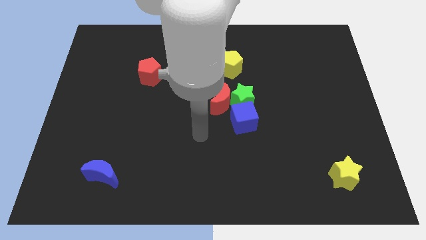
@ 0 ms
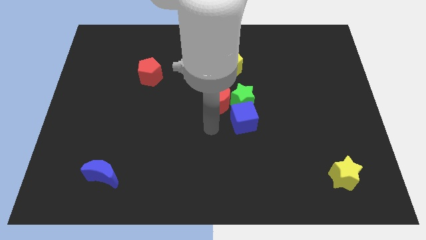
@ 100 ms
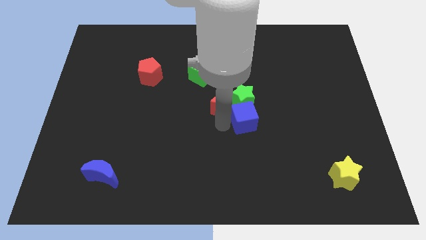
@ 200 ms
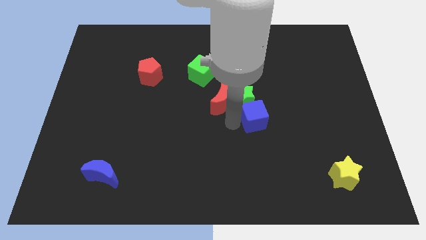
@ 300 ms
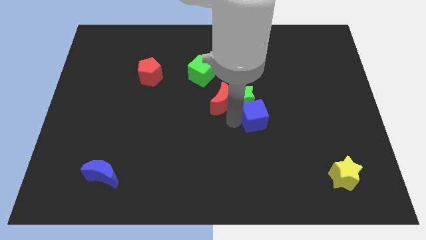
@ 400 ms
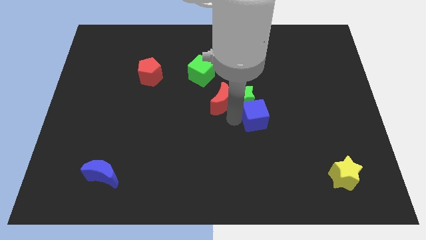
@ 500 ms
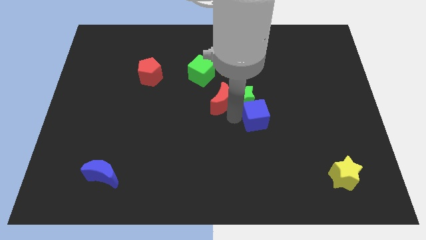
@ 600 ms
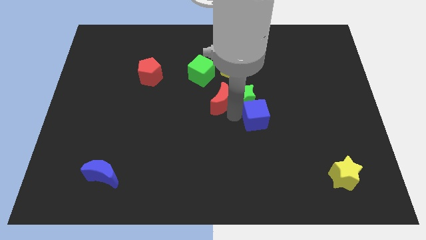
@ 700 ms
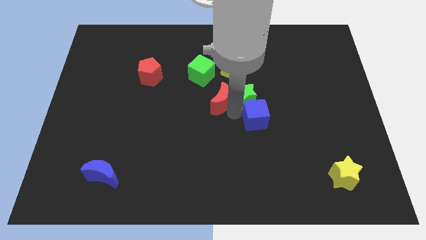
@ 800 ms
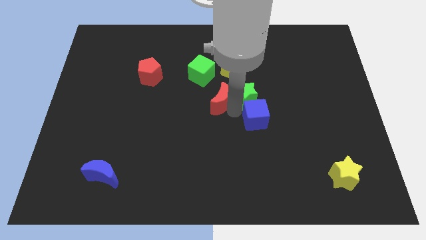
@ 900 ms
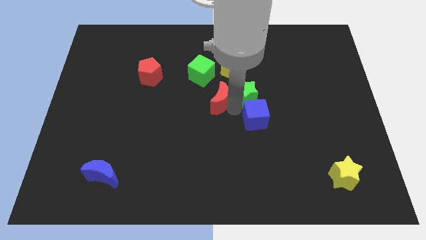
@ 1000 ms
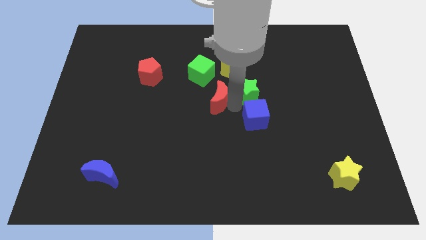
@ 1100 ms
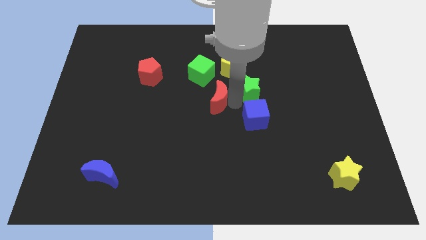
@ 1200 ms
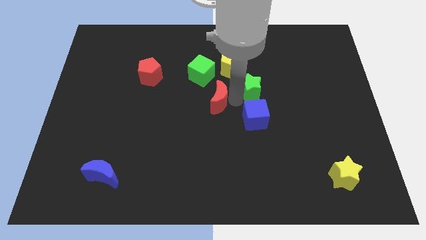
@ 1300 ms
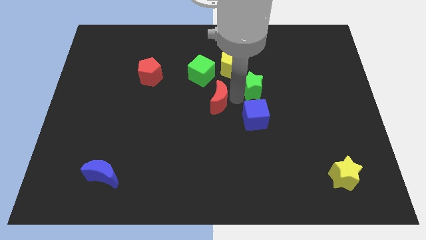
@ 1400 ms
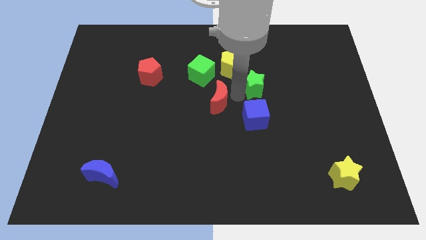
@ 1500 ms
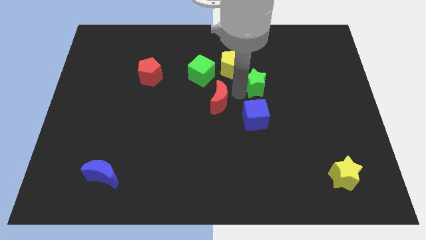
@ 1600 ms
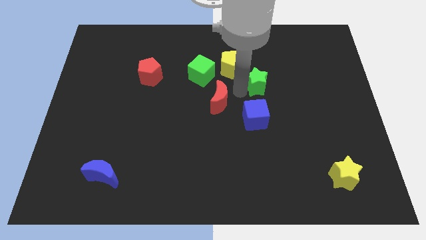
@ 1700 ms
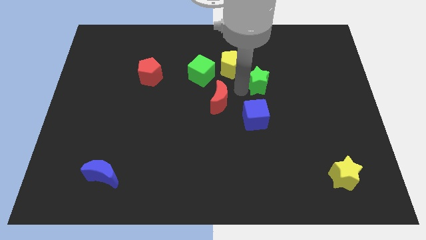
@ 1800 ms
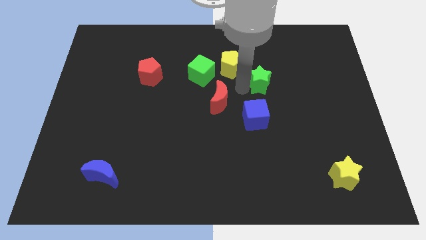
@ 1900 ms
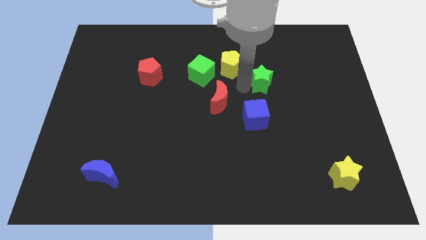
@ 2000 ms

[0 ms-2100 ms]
pull the green star apart from the red moon and blue cube

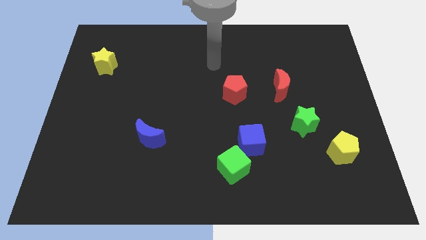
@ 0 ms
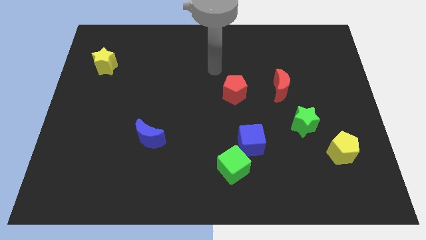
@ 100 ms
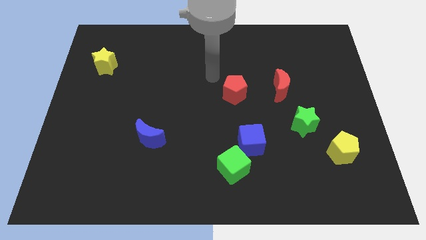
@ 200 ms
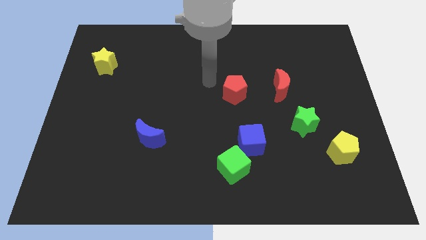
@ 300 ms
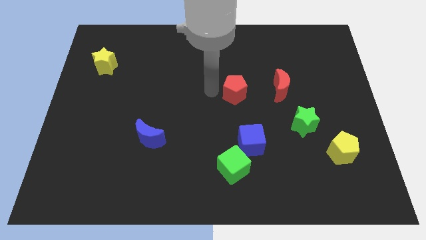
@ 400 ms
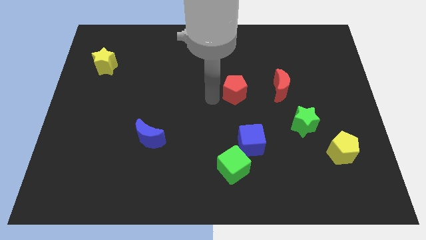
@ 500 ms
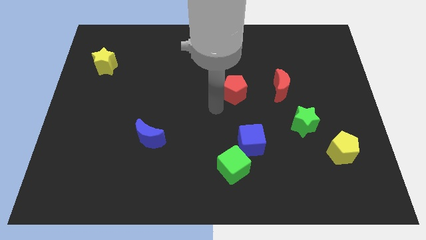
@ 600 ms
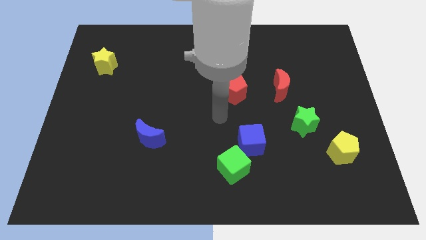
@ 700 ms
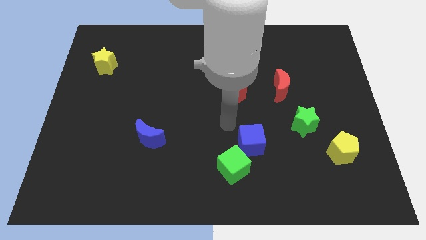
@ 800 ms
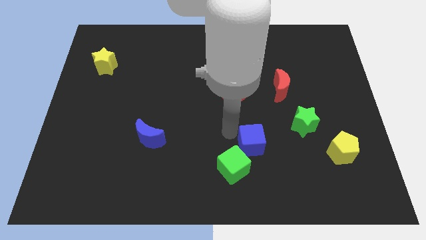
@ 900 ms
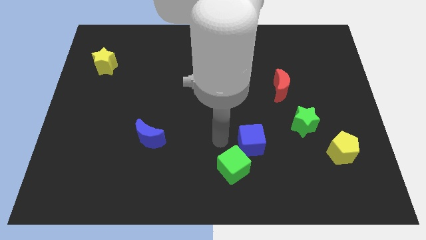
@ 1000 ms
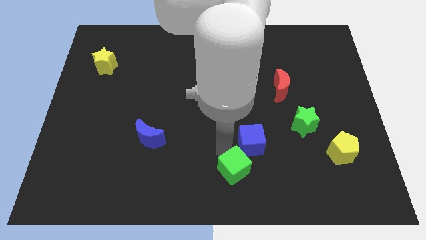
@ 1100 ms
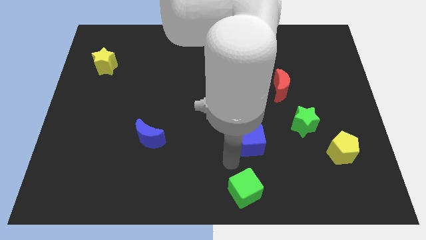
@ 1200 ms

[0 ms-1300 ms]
pull the blue cube apart from the green cube

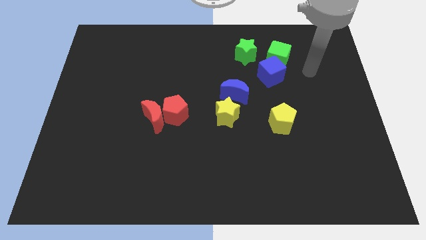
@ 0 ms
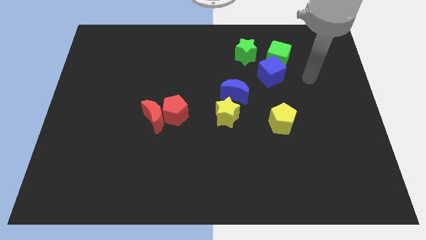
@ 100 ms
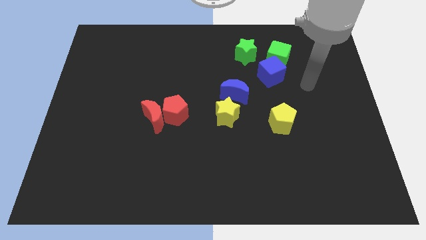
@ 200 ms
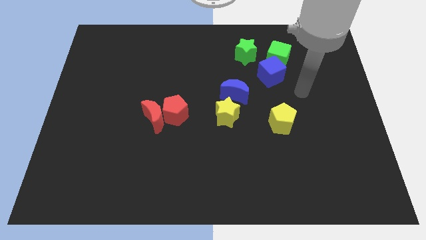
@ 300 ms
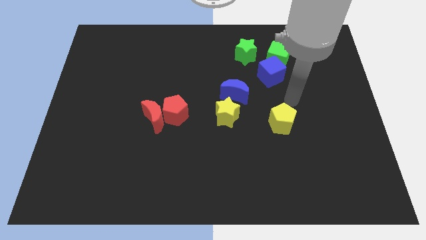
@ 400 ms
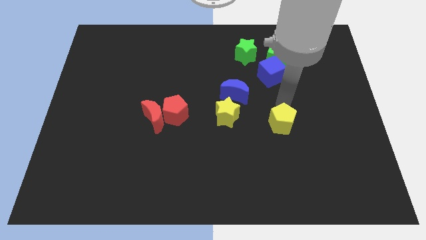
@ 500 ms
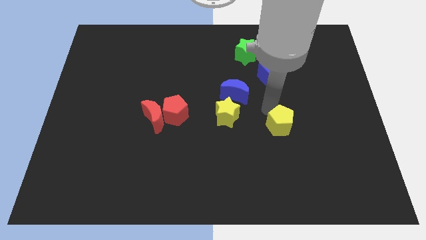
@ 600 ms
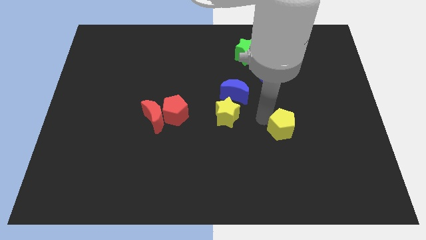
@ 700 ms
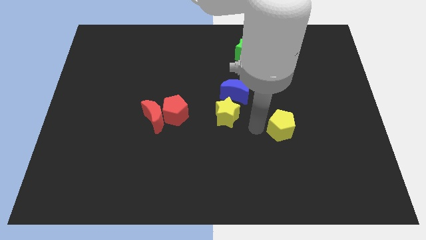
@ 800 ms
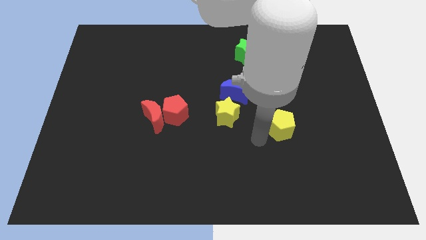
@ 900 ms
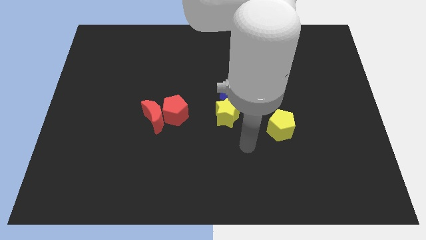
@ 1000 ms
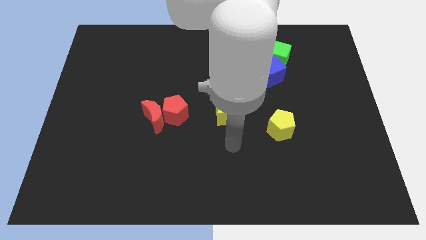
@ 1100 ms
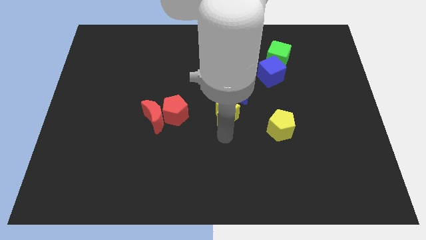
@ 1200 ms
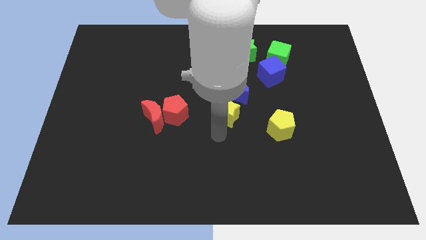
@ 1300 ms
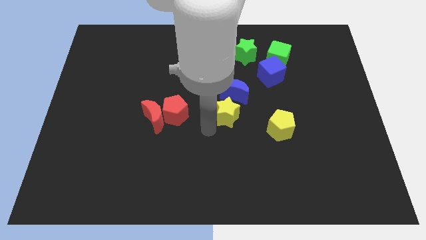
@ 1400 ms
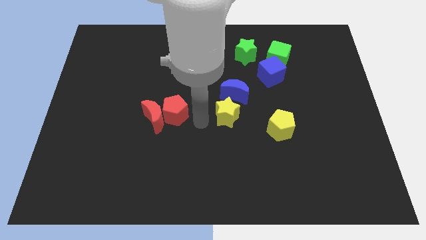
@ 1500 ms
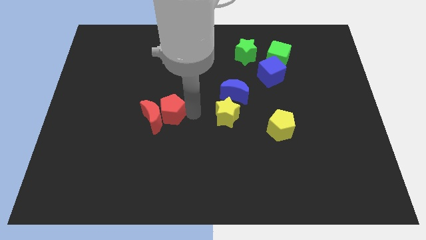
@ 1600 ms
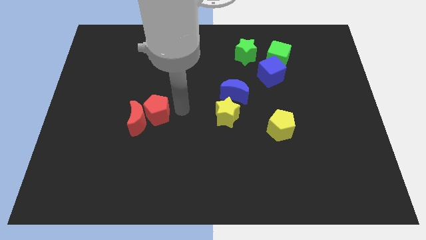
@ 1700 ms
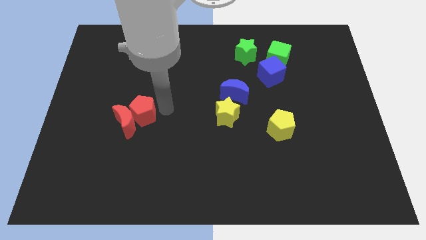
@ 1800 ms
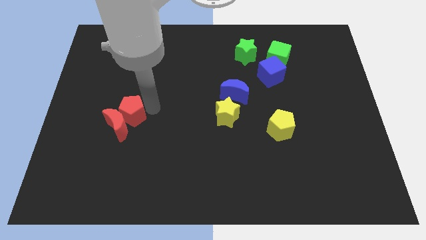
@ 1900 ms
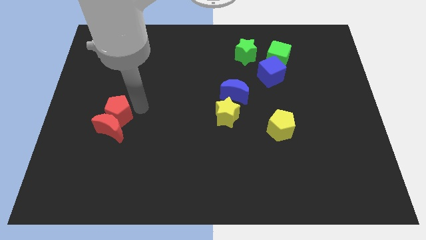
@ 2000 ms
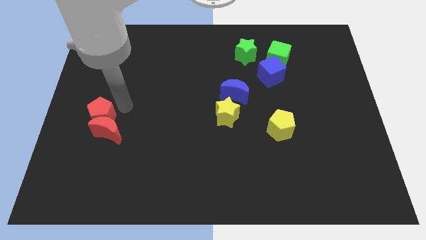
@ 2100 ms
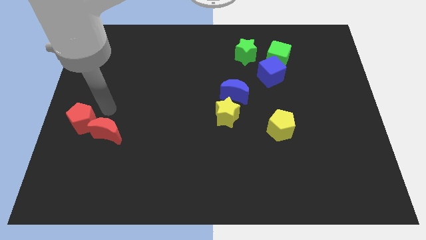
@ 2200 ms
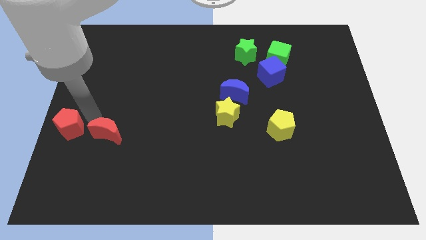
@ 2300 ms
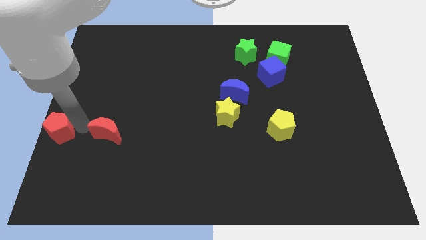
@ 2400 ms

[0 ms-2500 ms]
separate the red moon from the red pentagon

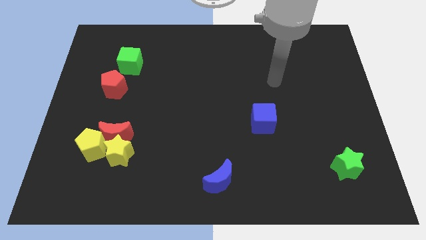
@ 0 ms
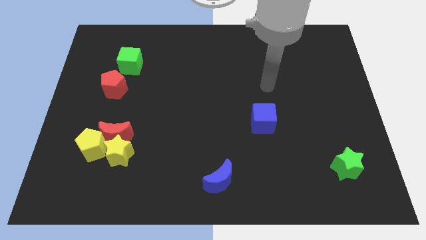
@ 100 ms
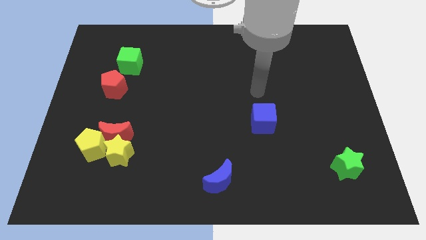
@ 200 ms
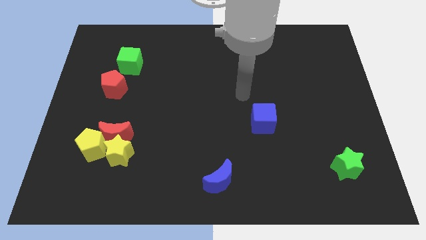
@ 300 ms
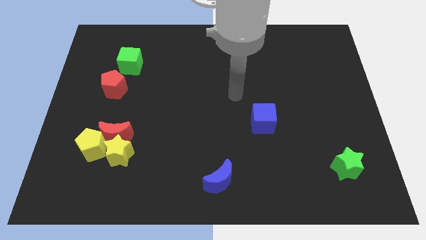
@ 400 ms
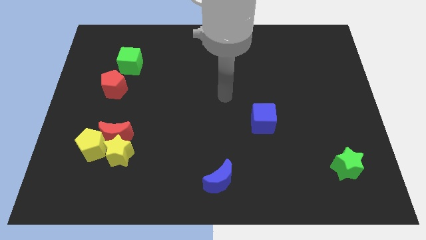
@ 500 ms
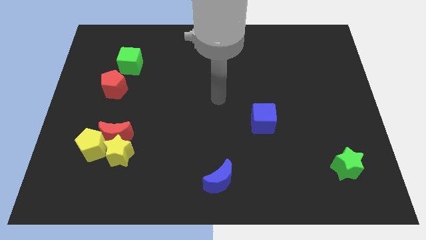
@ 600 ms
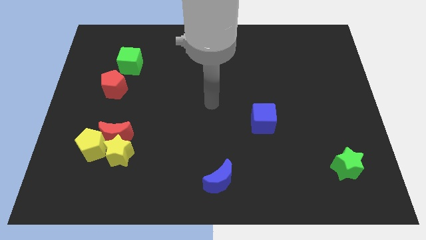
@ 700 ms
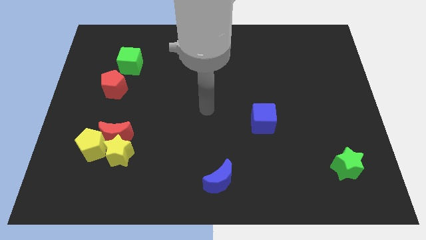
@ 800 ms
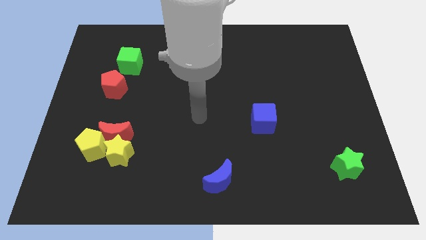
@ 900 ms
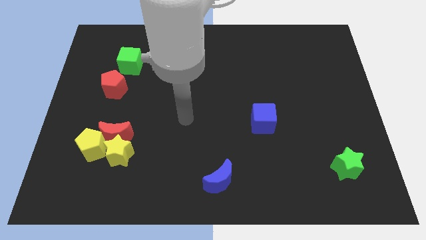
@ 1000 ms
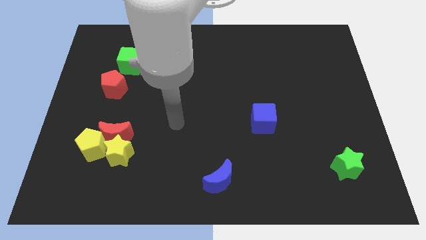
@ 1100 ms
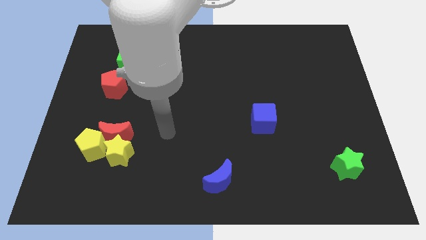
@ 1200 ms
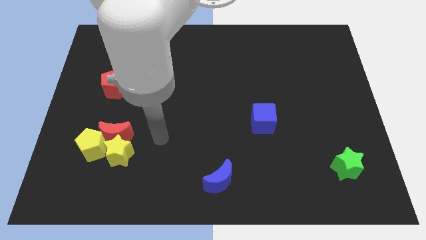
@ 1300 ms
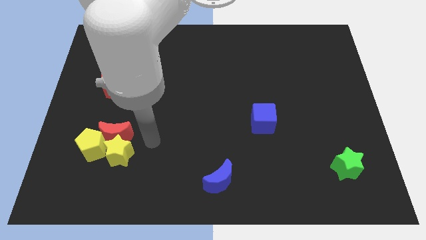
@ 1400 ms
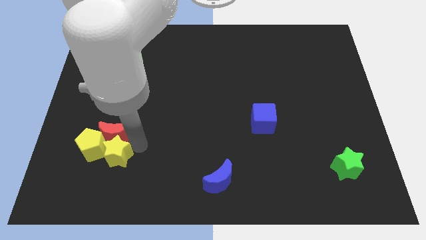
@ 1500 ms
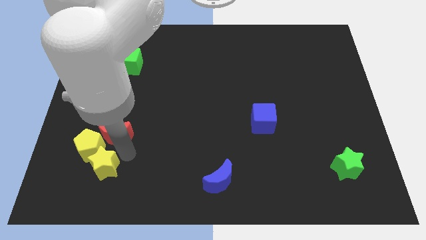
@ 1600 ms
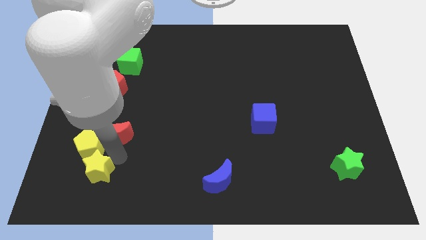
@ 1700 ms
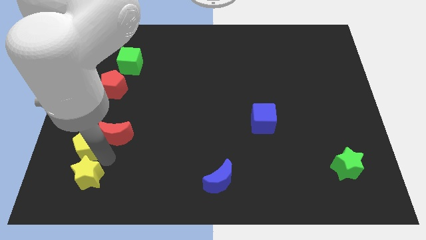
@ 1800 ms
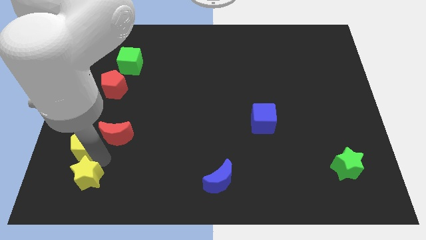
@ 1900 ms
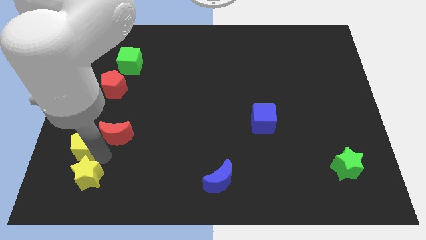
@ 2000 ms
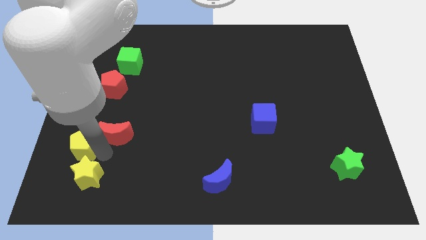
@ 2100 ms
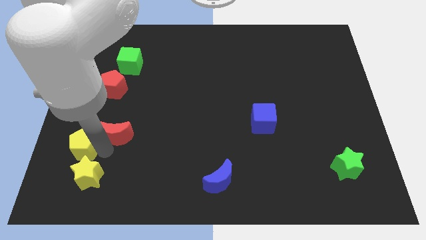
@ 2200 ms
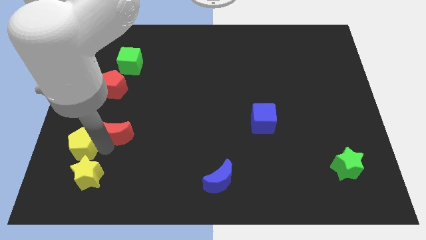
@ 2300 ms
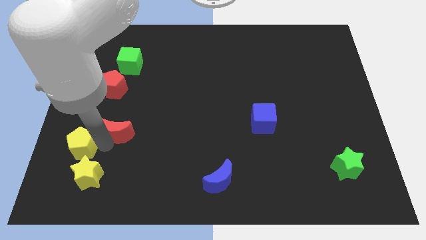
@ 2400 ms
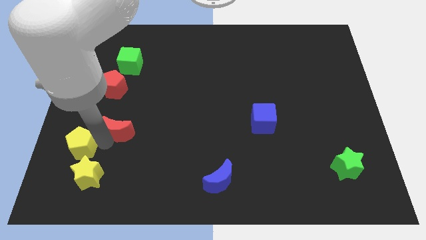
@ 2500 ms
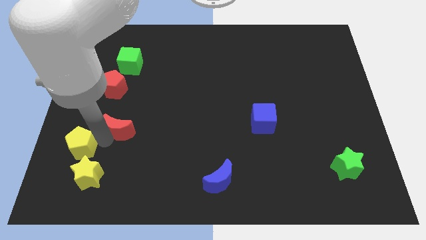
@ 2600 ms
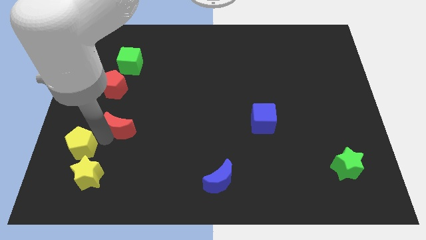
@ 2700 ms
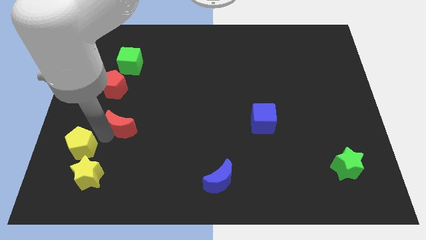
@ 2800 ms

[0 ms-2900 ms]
move the red moon away from the yellow star and yellow pentagon

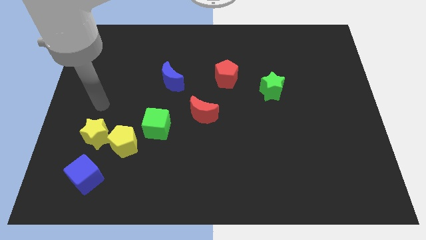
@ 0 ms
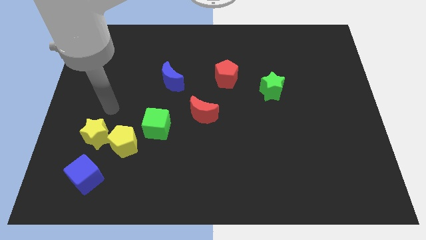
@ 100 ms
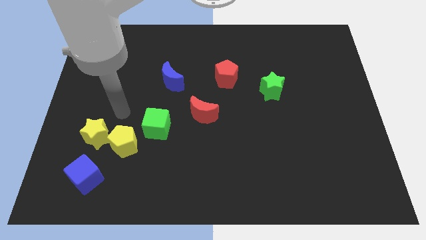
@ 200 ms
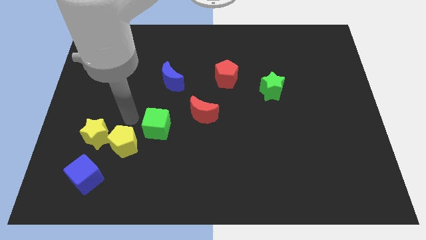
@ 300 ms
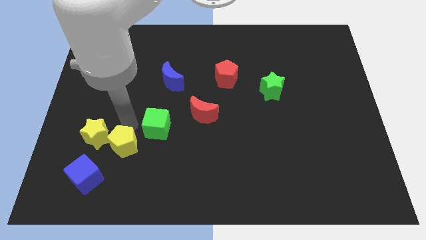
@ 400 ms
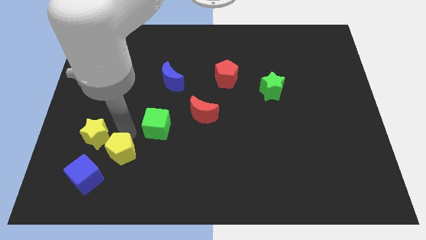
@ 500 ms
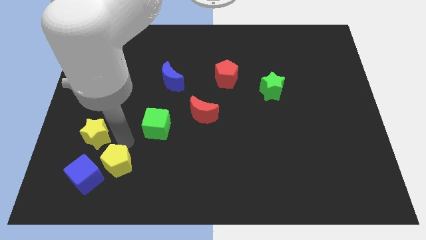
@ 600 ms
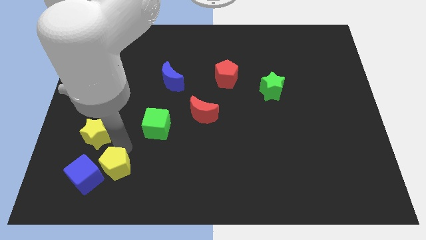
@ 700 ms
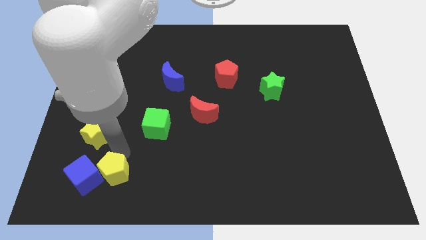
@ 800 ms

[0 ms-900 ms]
move the yellow pentagon away from the yellow star and green cube
